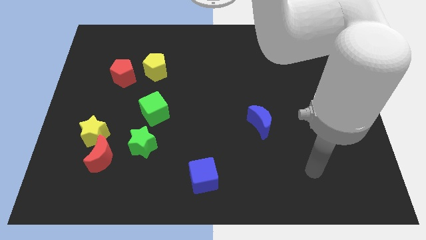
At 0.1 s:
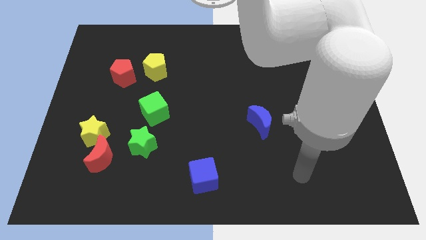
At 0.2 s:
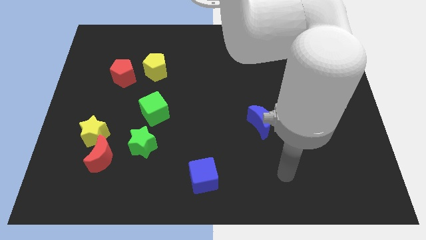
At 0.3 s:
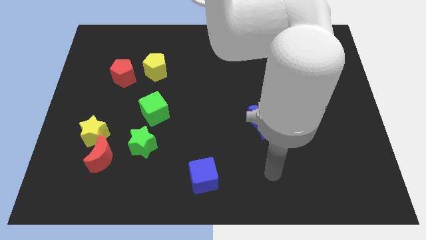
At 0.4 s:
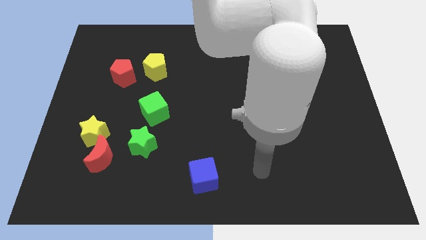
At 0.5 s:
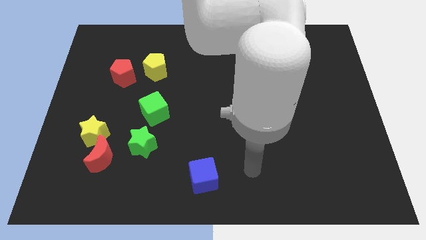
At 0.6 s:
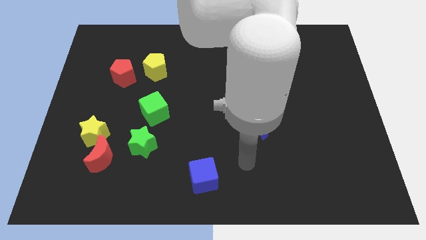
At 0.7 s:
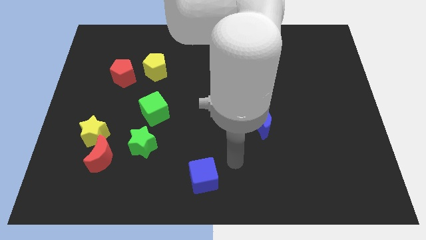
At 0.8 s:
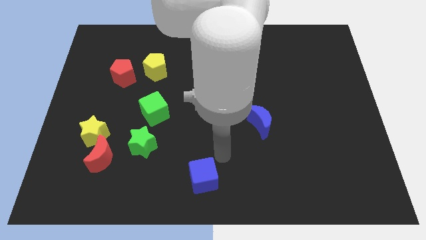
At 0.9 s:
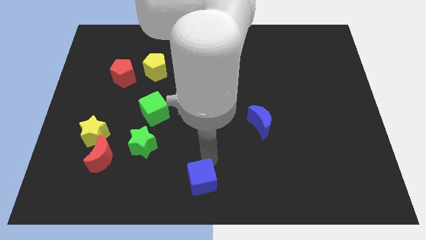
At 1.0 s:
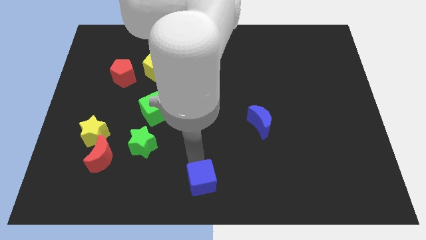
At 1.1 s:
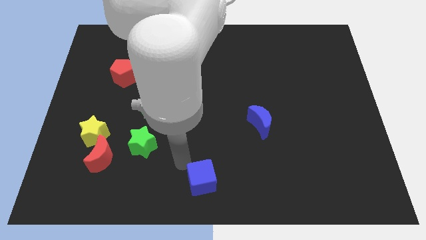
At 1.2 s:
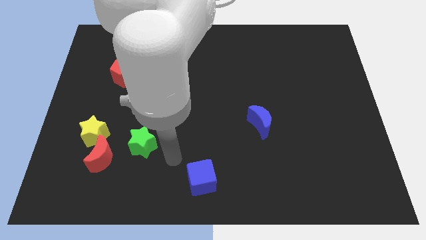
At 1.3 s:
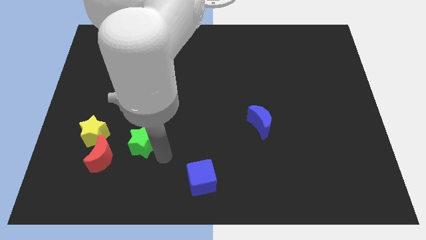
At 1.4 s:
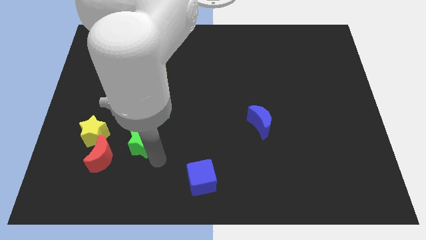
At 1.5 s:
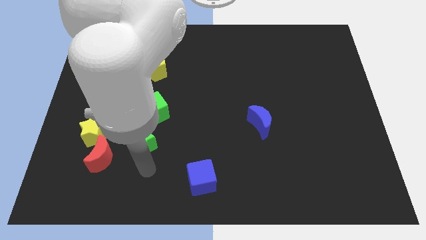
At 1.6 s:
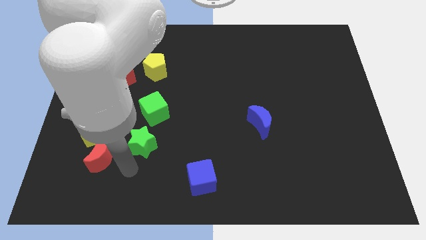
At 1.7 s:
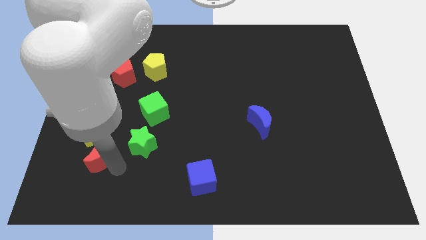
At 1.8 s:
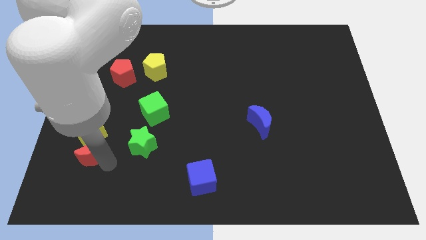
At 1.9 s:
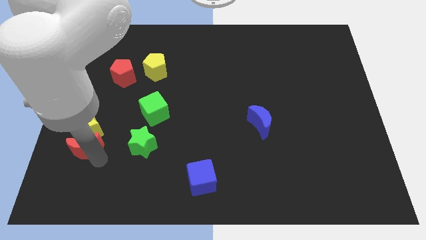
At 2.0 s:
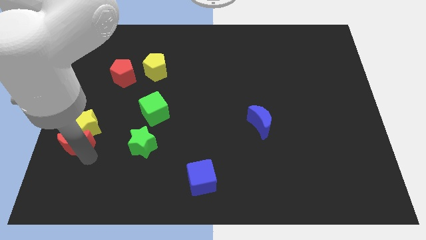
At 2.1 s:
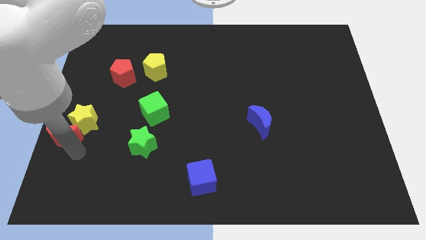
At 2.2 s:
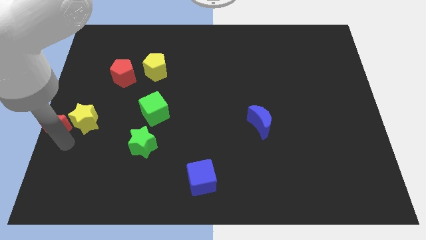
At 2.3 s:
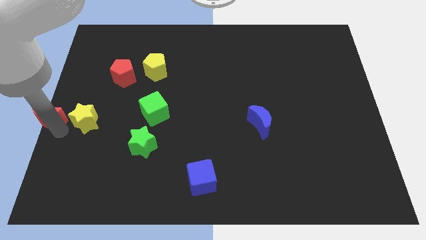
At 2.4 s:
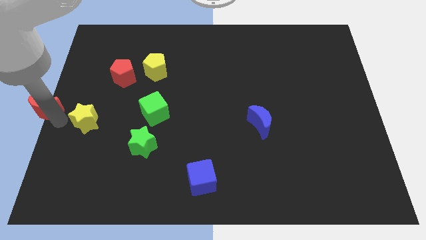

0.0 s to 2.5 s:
pull the yellow star apart from the red moon

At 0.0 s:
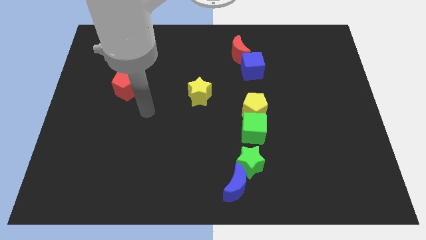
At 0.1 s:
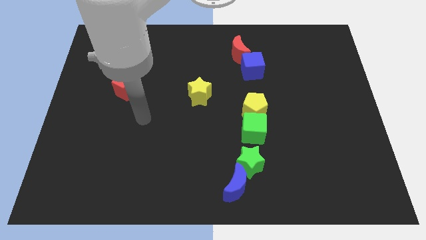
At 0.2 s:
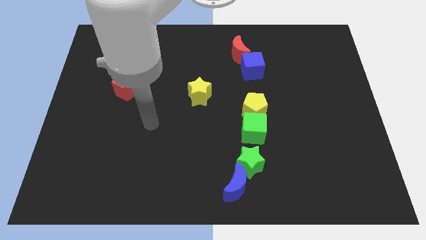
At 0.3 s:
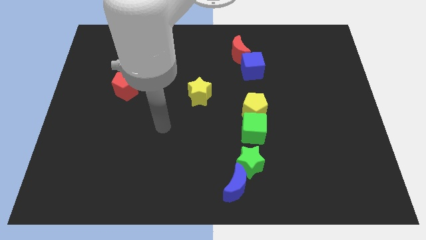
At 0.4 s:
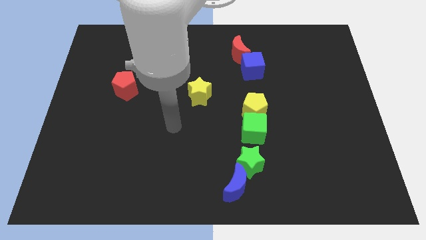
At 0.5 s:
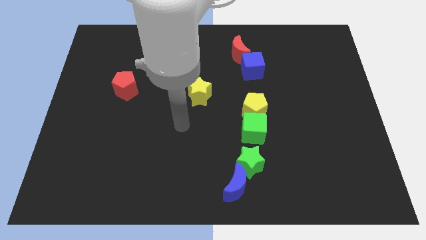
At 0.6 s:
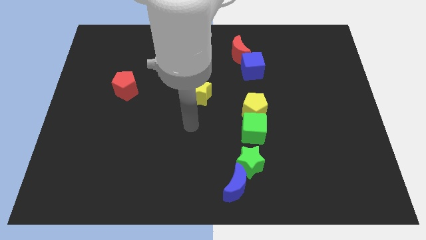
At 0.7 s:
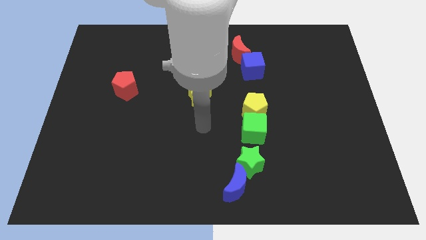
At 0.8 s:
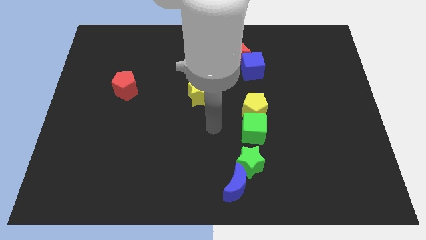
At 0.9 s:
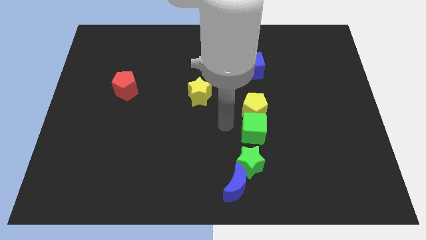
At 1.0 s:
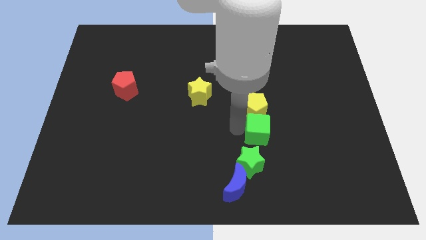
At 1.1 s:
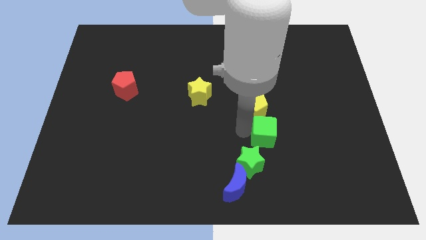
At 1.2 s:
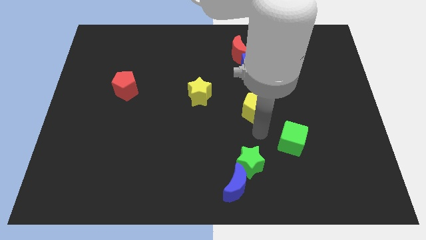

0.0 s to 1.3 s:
move the yellow pentagon away from the green cube

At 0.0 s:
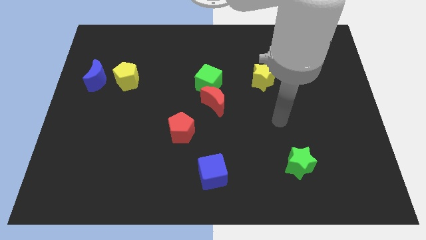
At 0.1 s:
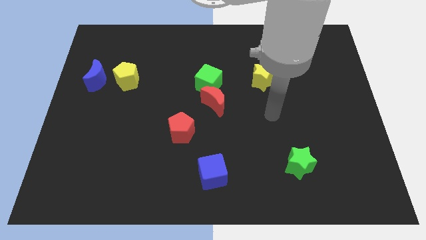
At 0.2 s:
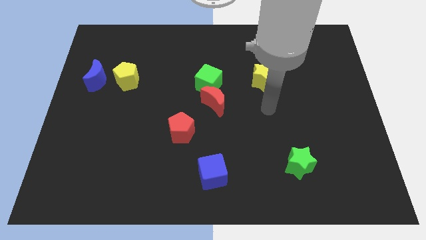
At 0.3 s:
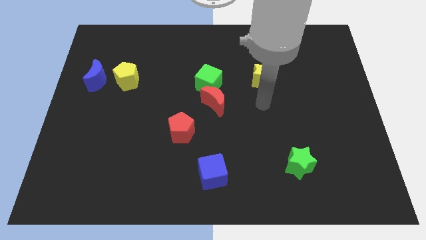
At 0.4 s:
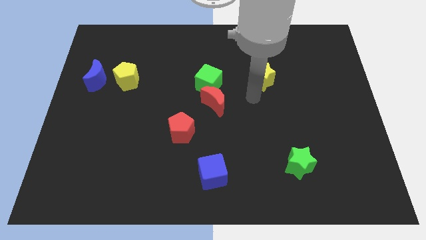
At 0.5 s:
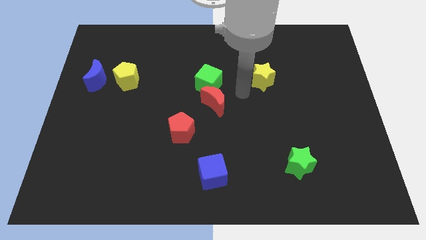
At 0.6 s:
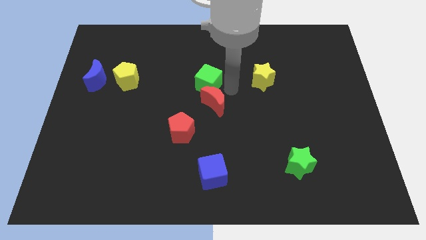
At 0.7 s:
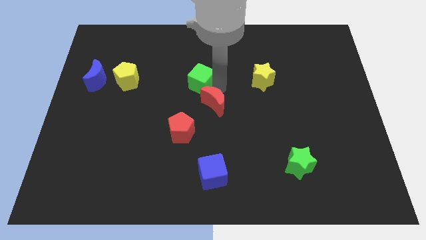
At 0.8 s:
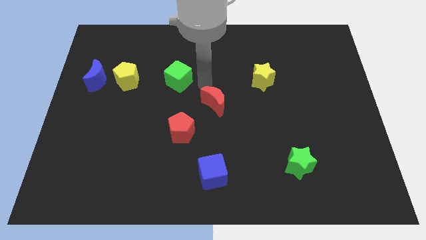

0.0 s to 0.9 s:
separate the red moon from the green cube

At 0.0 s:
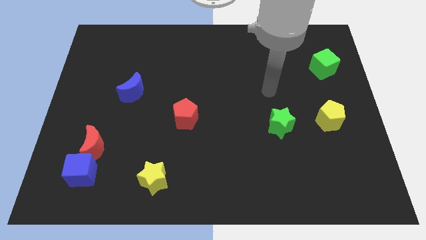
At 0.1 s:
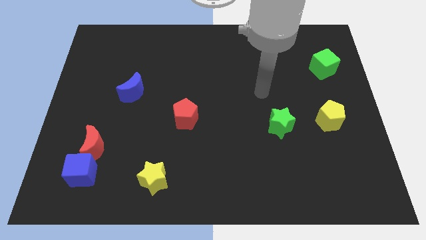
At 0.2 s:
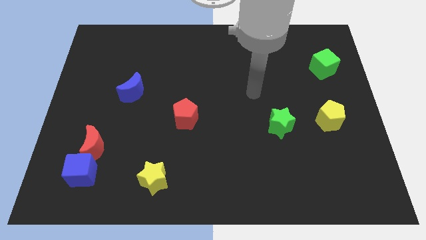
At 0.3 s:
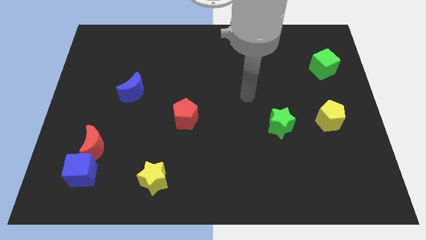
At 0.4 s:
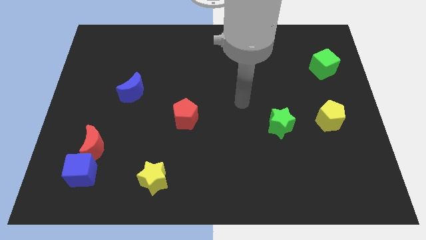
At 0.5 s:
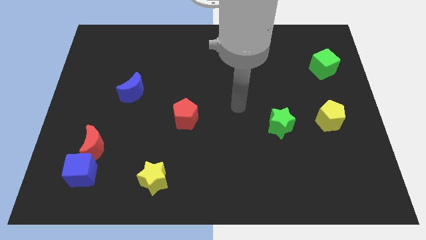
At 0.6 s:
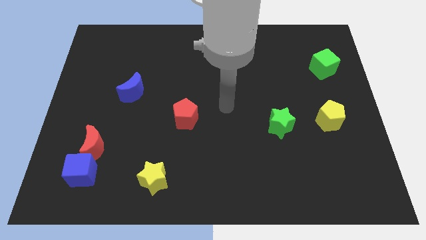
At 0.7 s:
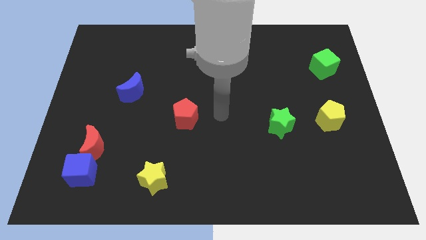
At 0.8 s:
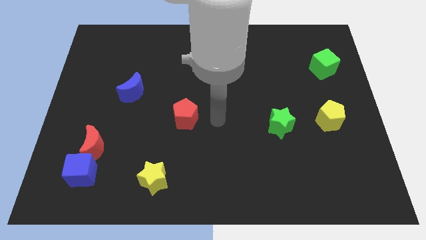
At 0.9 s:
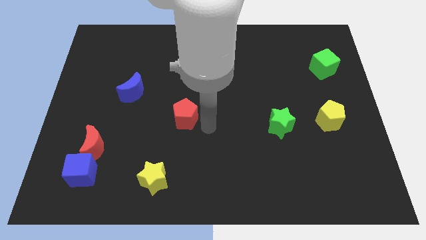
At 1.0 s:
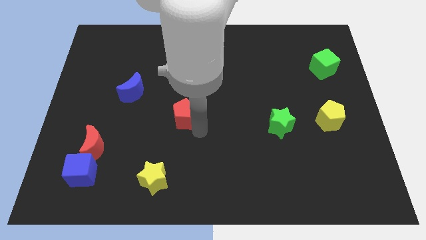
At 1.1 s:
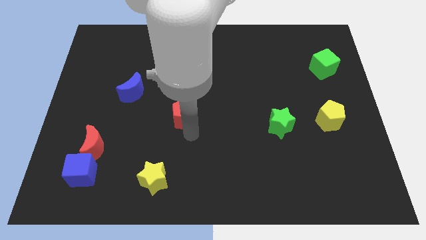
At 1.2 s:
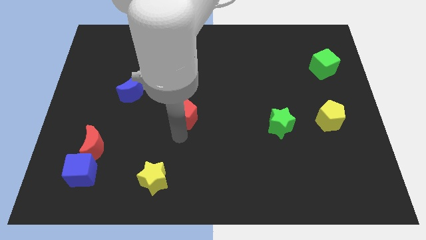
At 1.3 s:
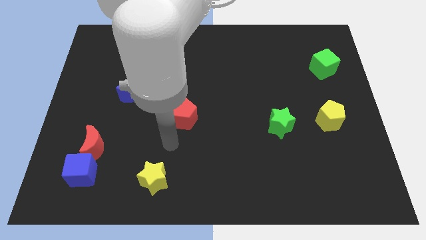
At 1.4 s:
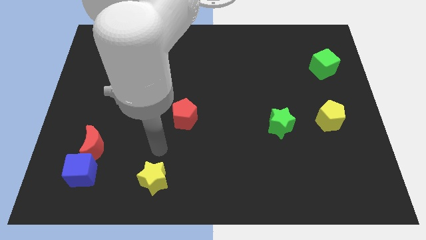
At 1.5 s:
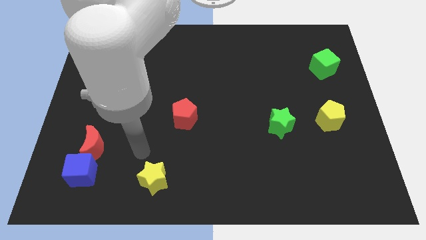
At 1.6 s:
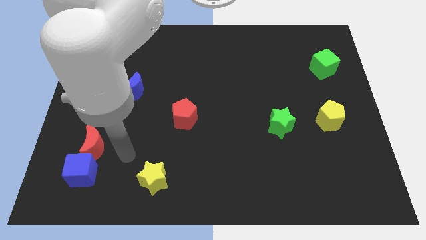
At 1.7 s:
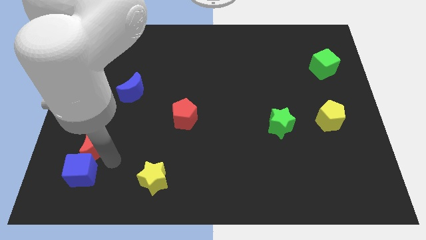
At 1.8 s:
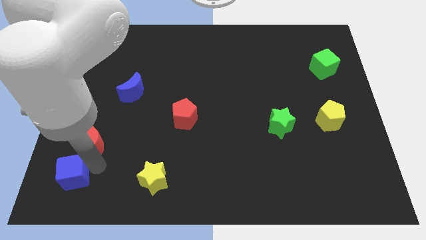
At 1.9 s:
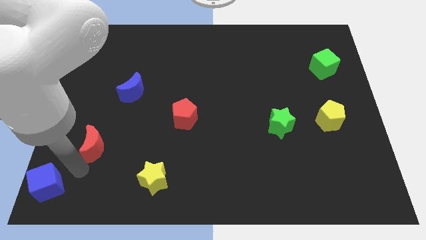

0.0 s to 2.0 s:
pull the red moon apart from the blue cube

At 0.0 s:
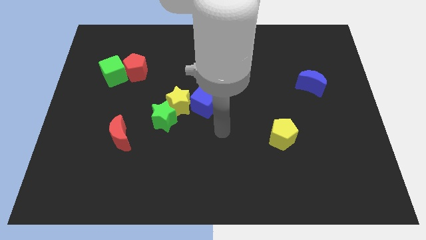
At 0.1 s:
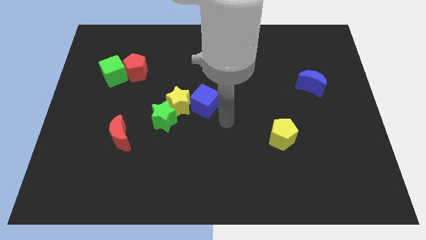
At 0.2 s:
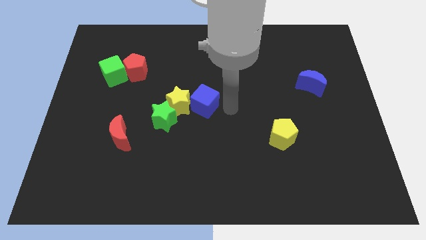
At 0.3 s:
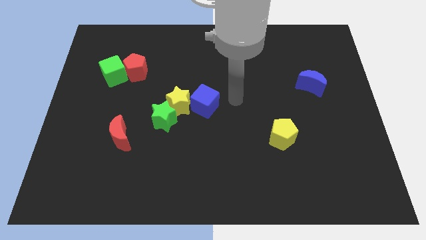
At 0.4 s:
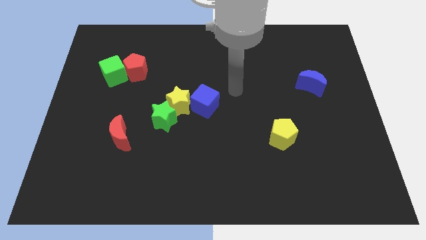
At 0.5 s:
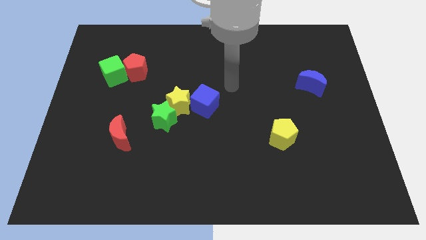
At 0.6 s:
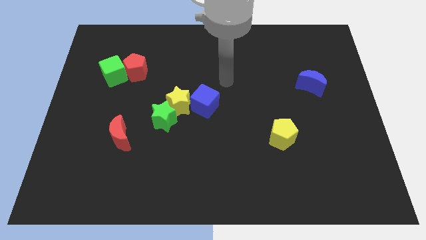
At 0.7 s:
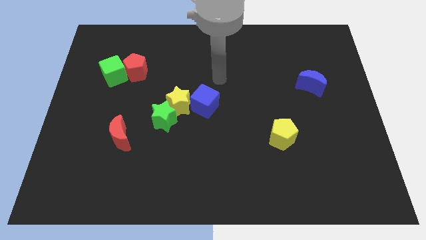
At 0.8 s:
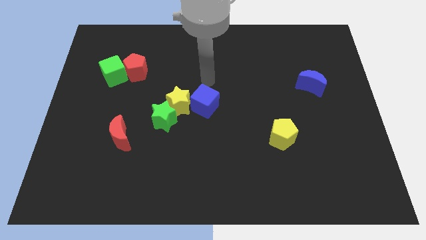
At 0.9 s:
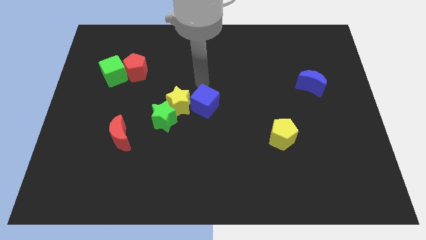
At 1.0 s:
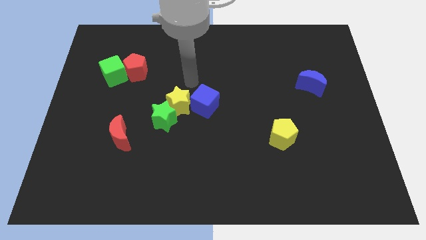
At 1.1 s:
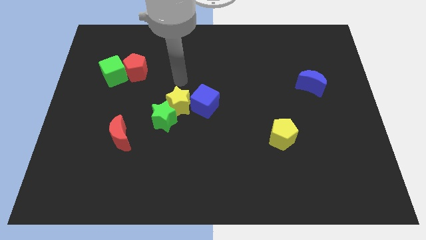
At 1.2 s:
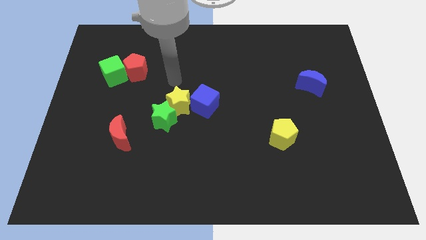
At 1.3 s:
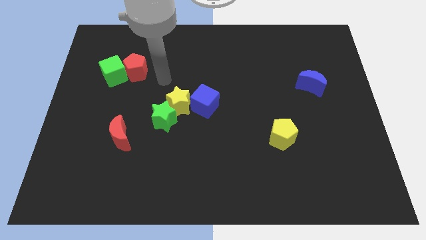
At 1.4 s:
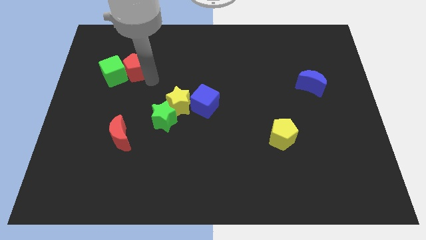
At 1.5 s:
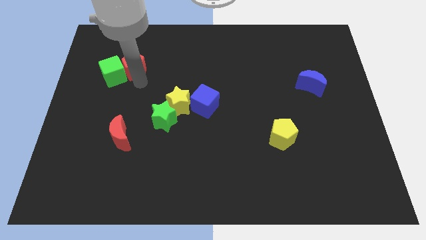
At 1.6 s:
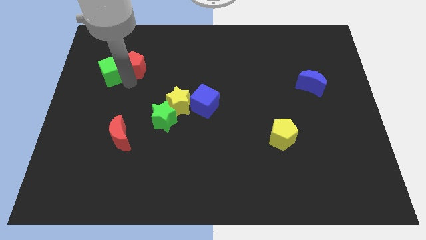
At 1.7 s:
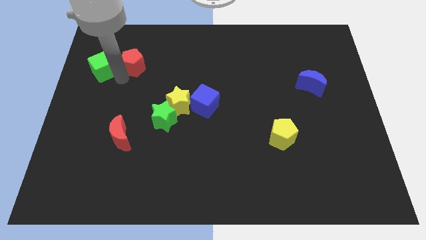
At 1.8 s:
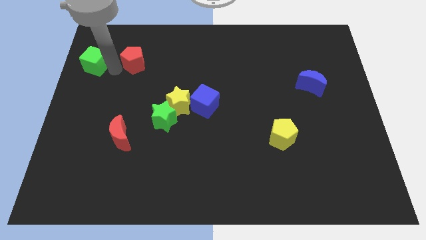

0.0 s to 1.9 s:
pull the red pentagon apart from the green cube

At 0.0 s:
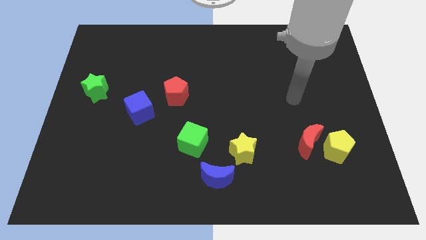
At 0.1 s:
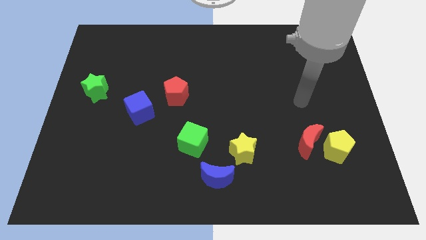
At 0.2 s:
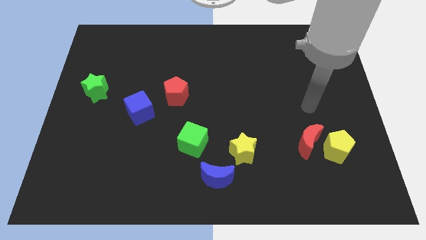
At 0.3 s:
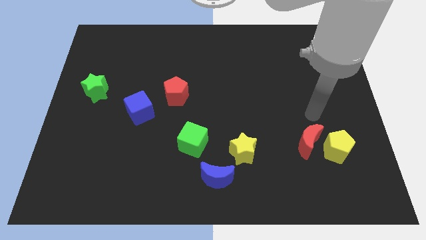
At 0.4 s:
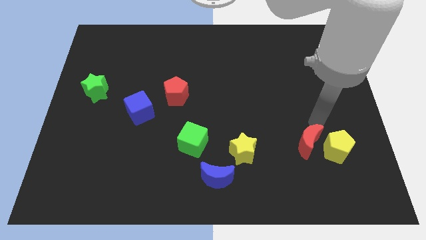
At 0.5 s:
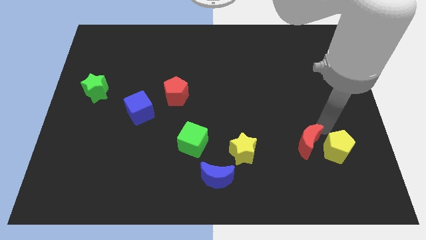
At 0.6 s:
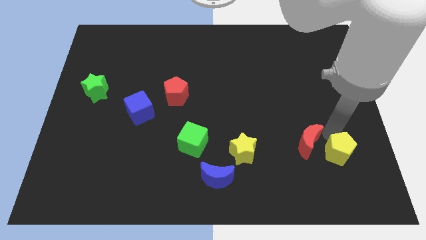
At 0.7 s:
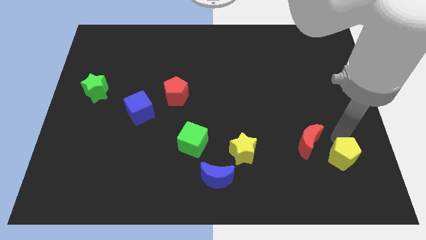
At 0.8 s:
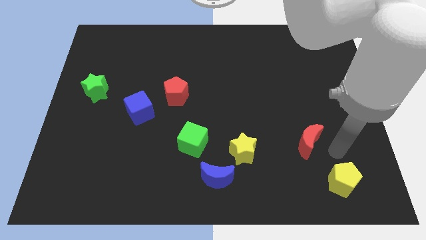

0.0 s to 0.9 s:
separate the red moon from the yellow pentagon

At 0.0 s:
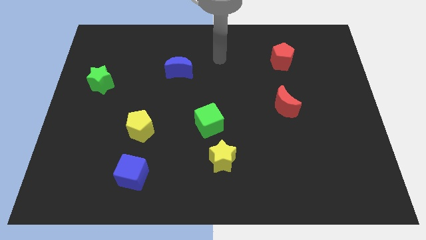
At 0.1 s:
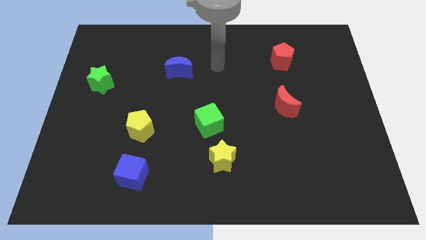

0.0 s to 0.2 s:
pull the green cube apart from the yellow star
